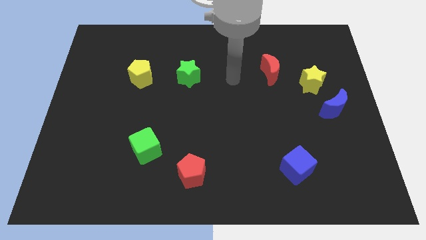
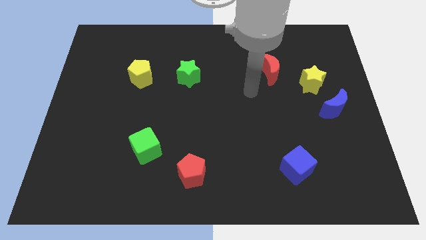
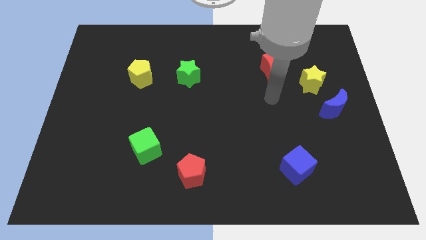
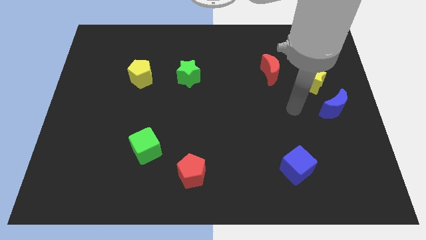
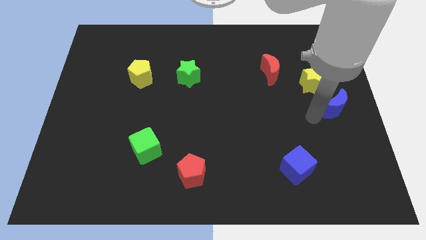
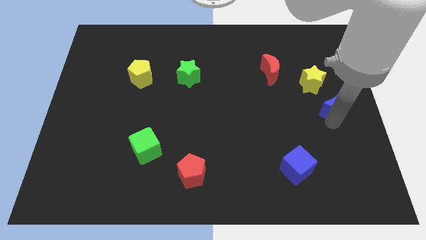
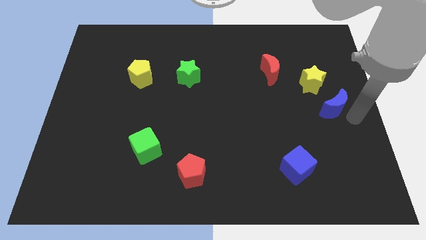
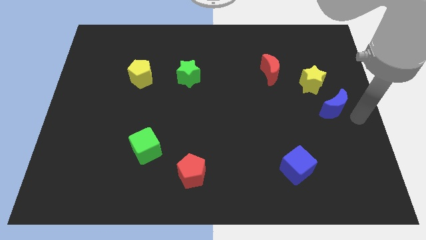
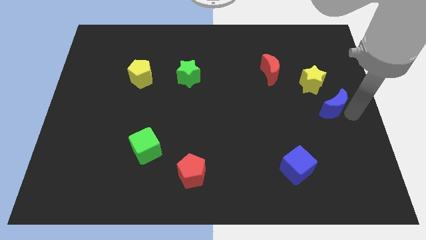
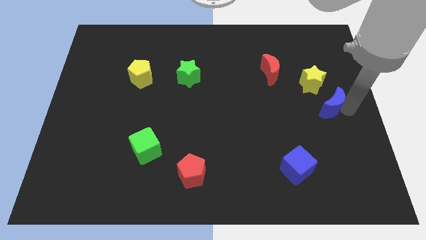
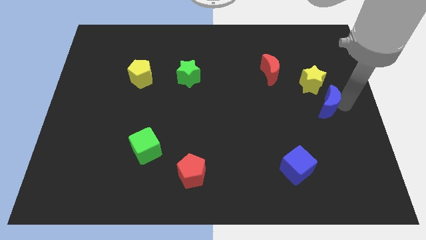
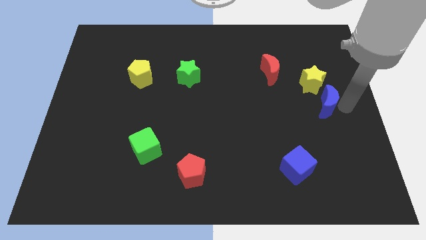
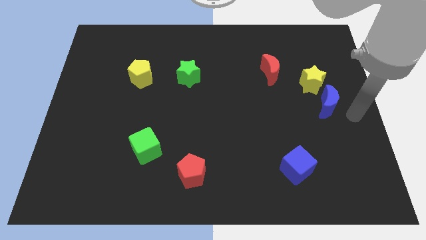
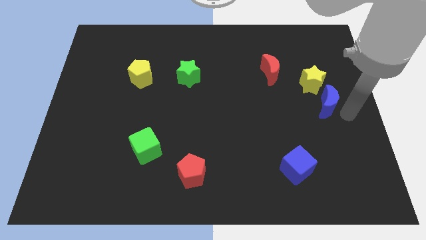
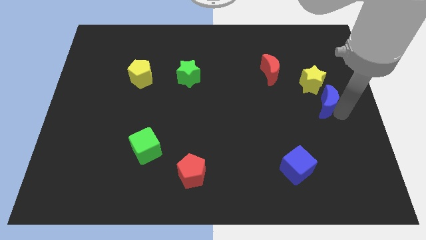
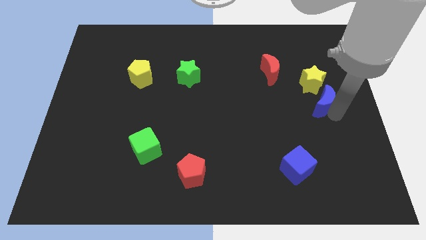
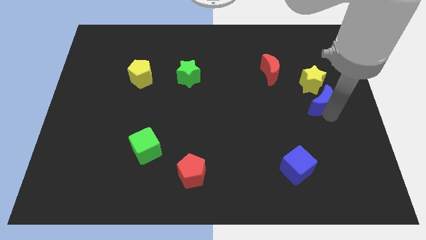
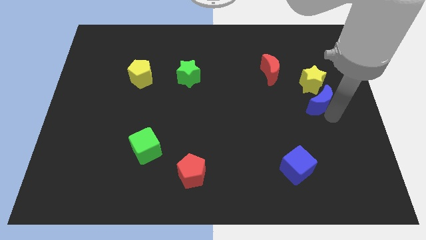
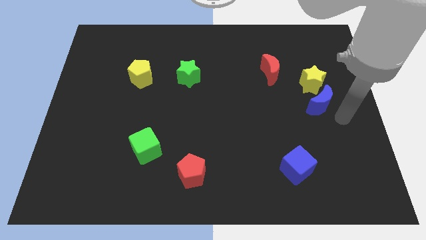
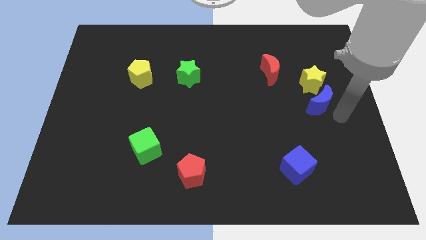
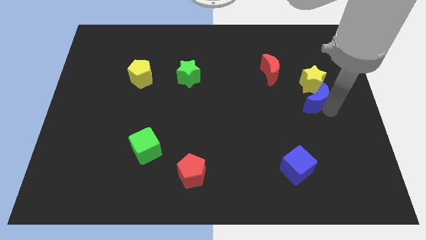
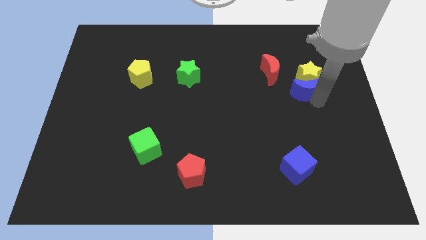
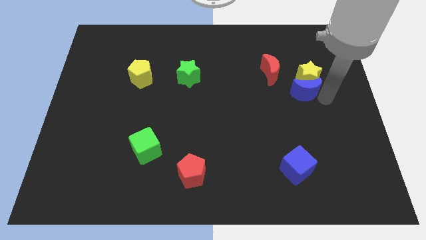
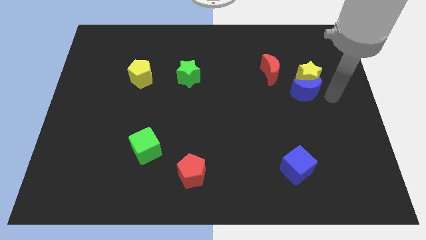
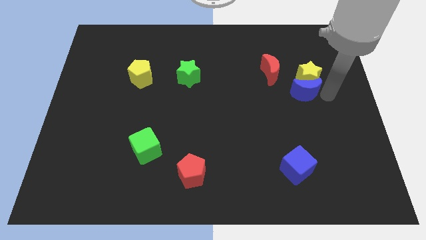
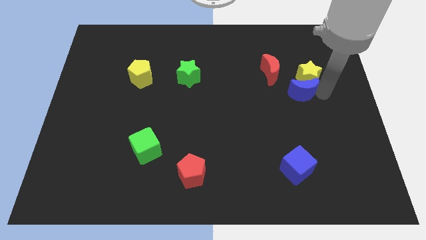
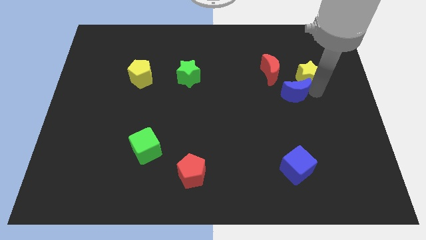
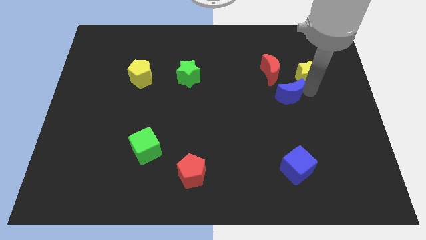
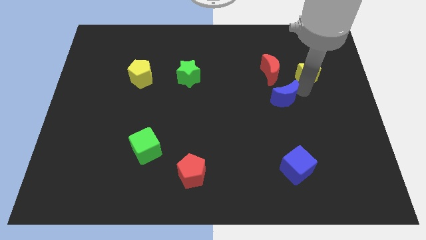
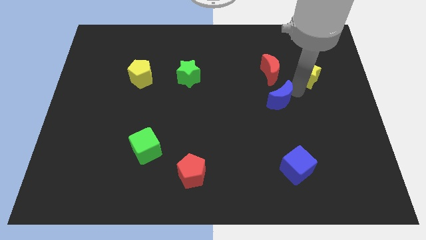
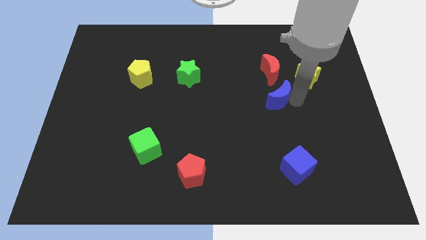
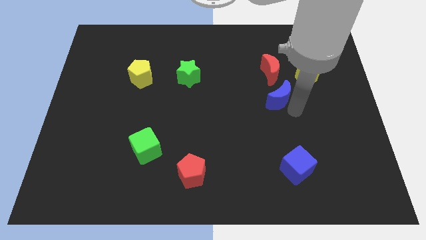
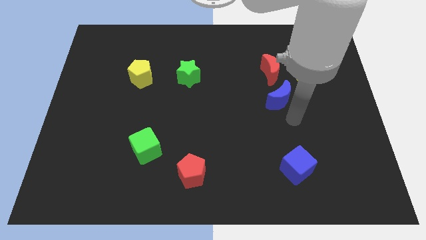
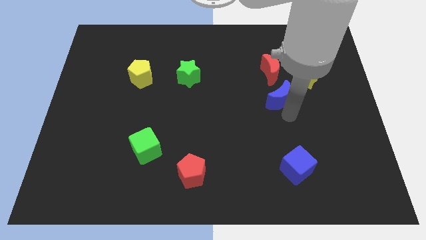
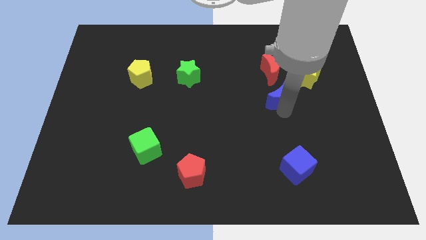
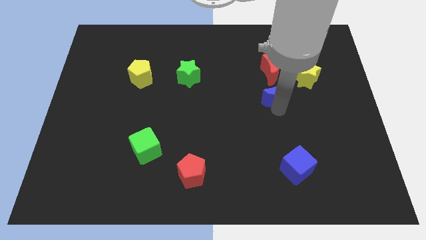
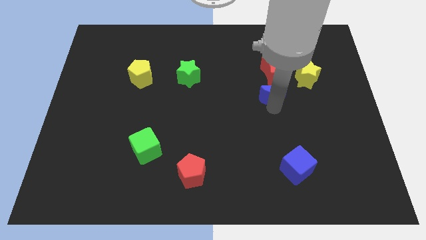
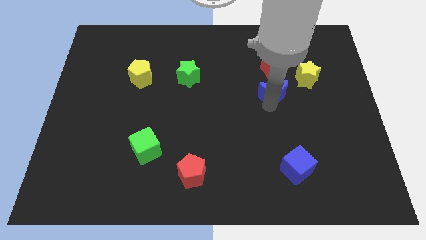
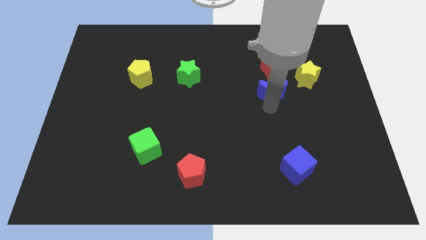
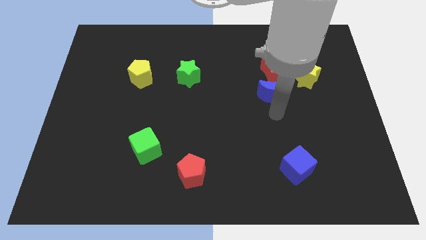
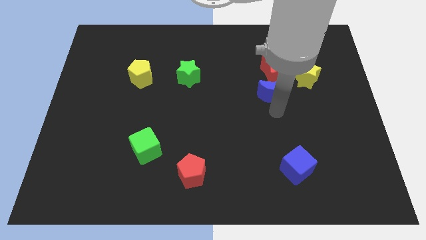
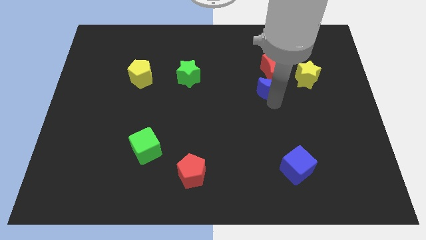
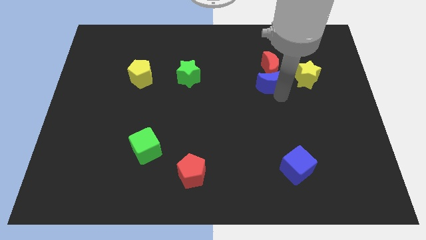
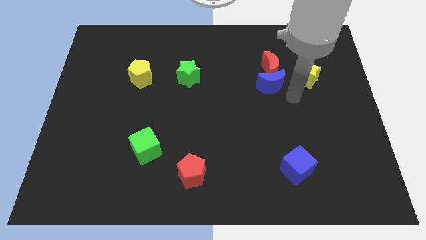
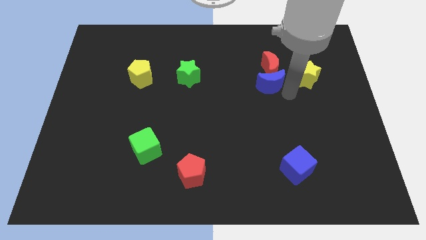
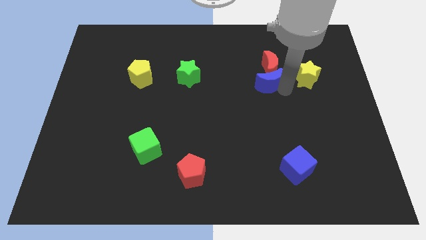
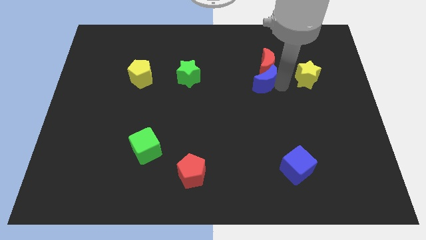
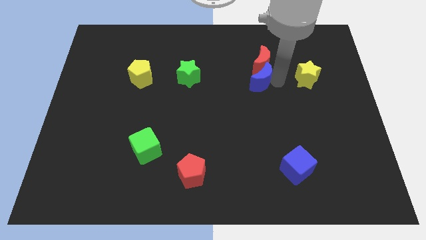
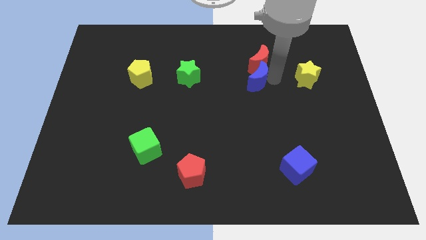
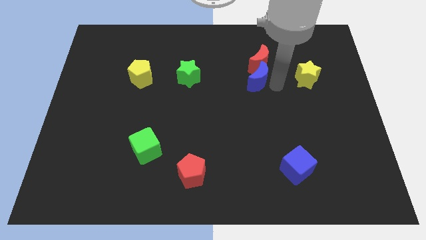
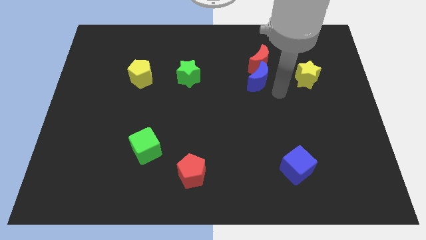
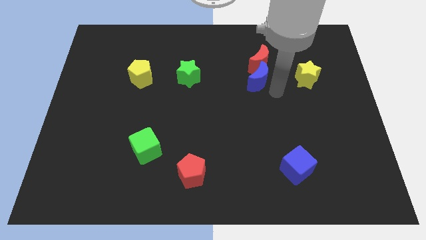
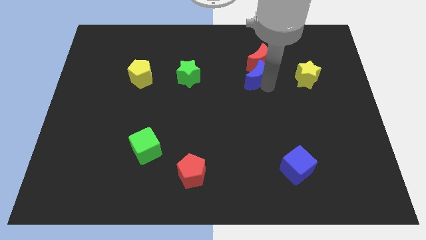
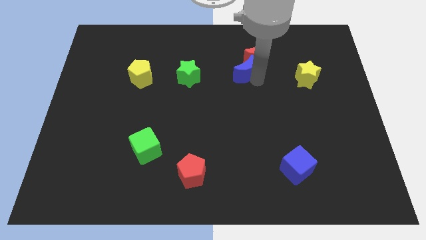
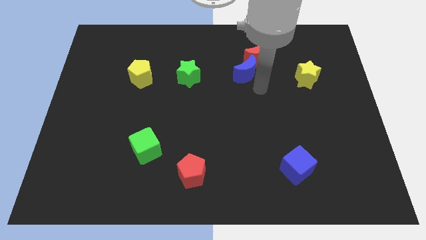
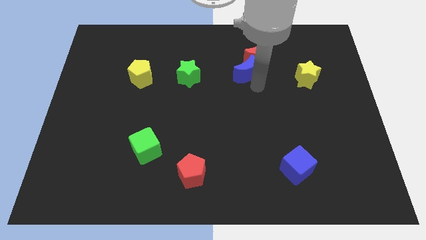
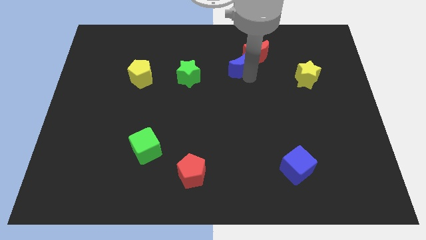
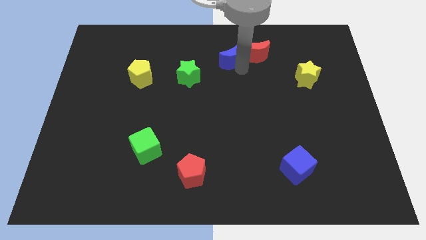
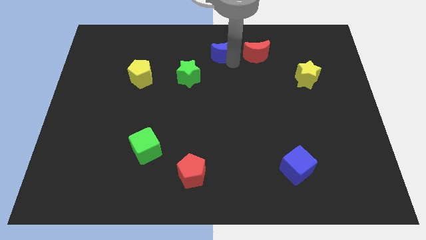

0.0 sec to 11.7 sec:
push the blue moon to the towards your base

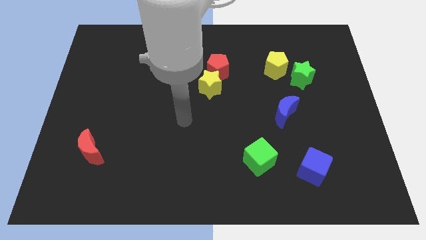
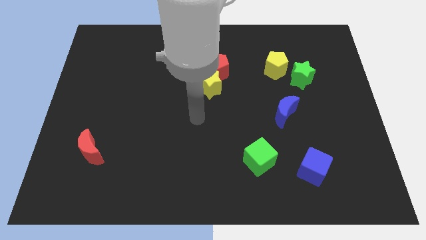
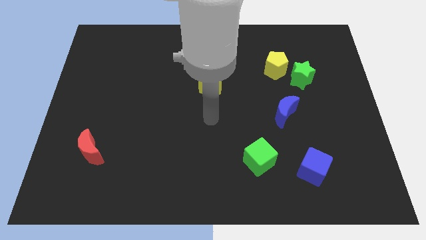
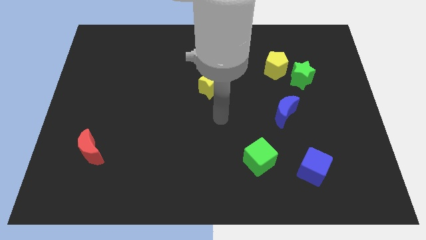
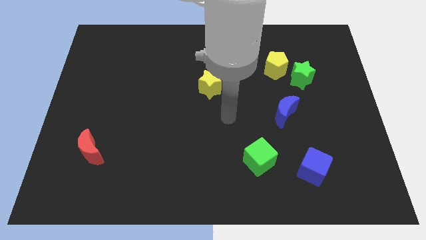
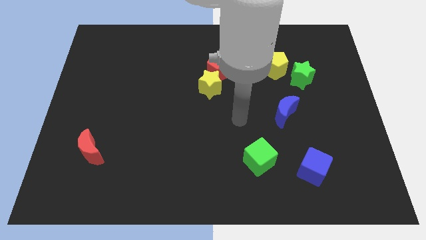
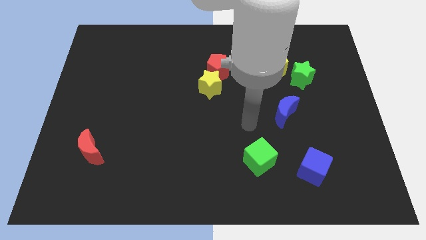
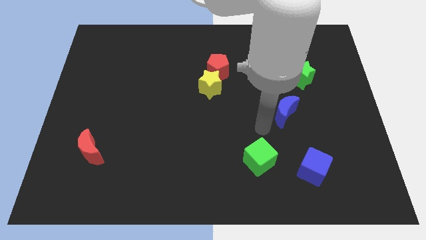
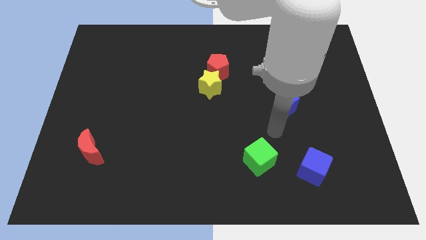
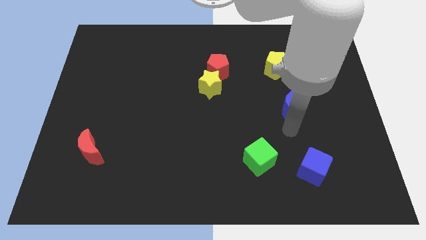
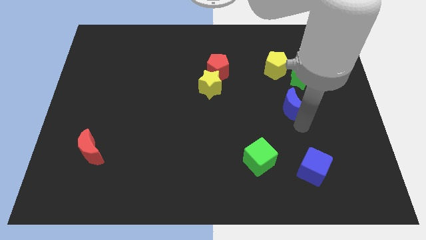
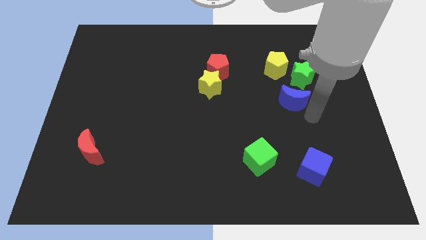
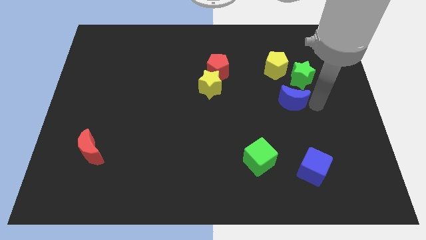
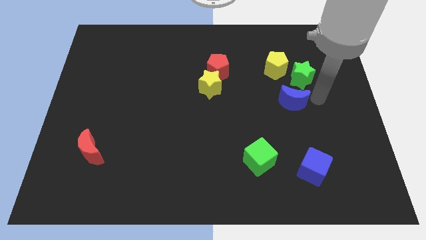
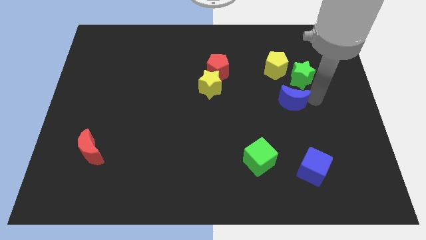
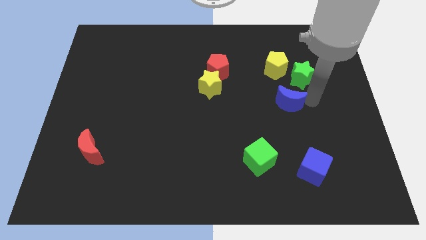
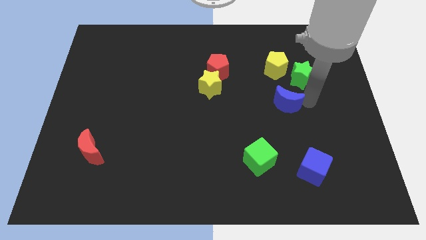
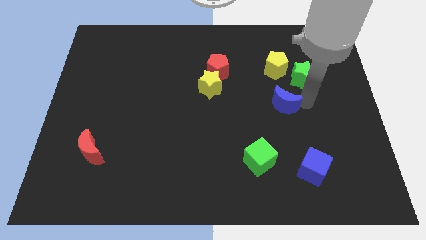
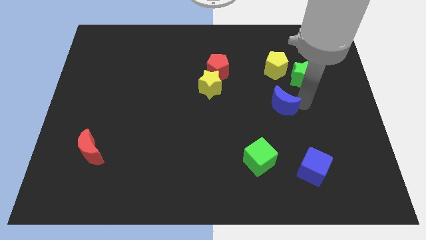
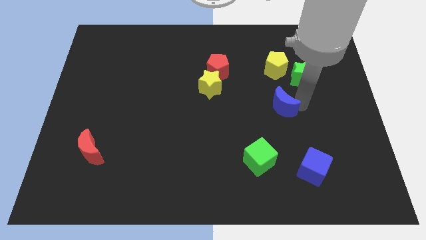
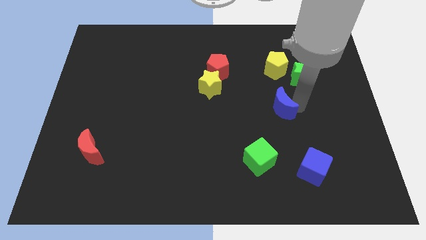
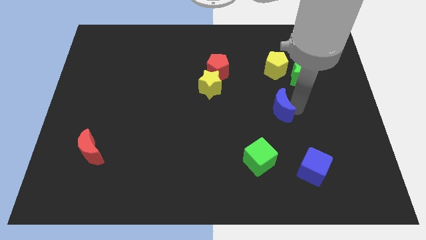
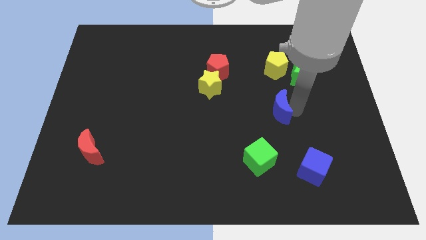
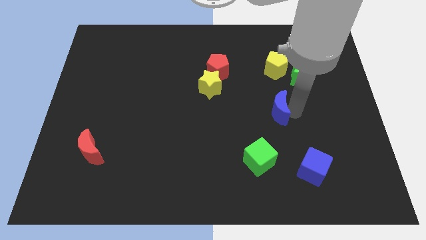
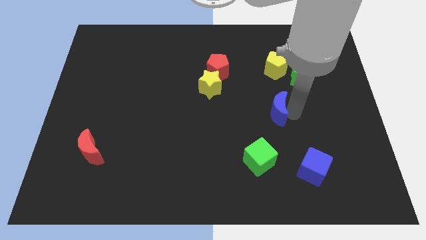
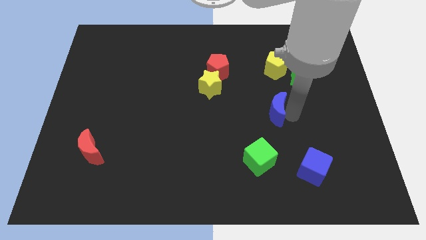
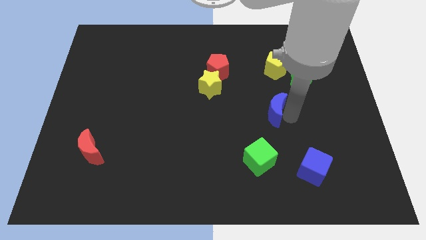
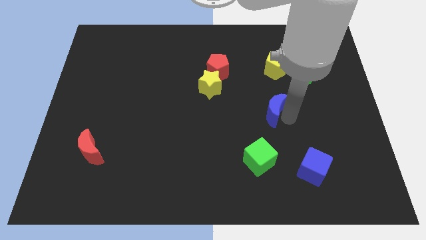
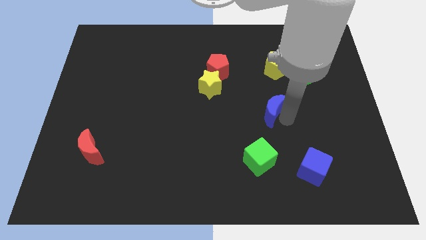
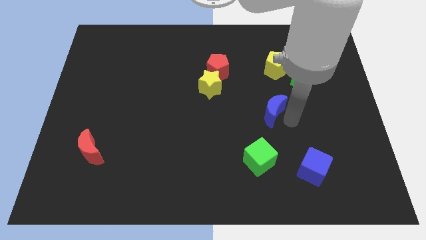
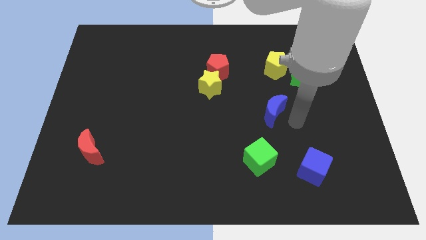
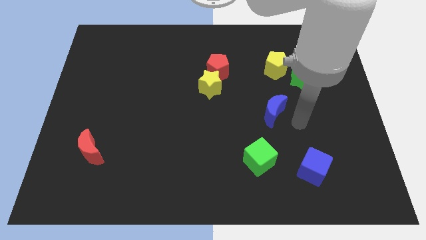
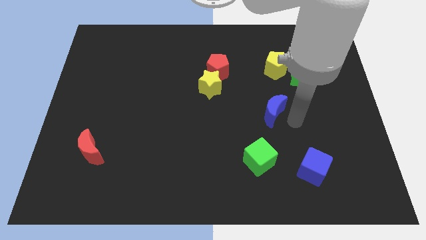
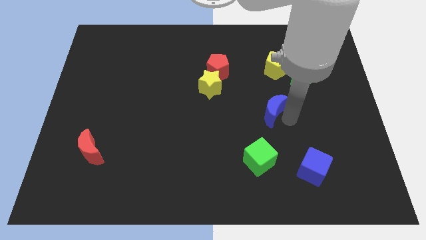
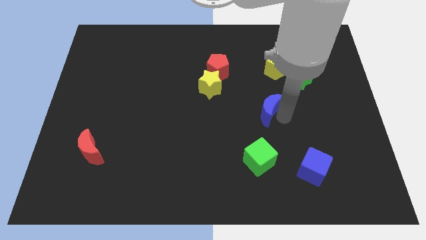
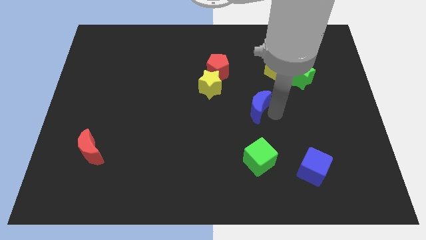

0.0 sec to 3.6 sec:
push the blue moon to the center
